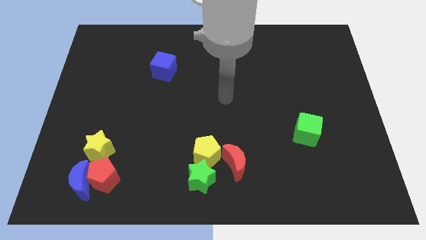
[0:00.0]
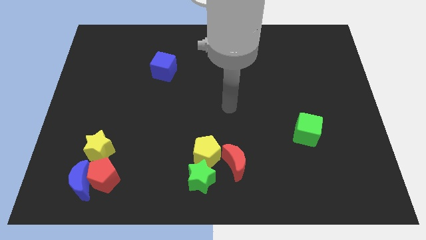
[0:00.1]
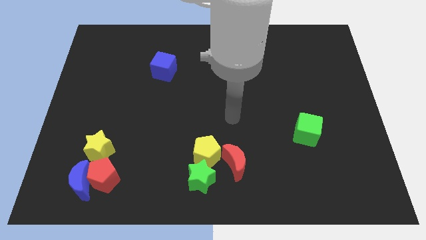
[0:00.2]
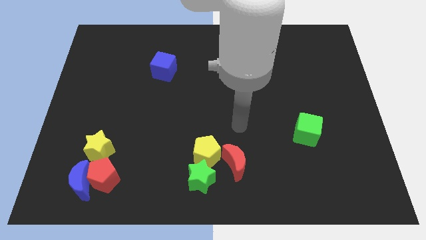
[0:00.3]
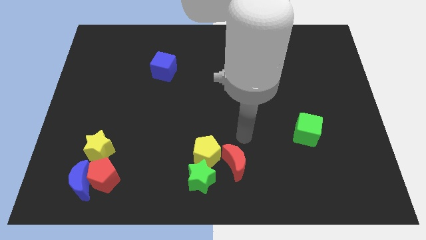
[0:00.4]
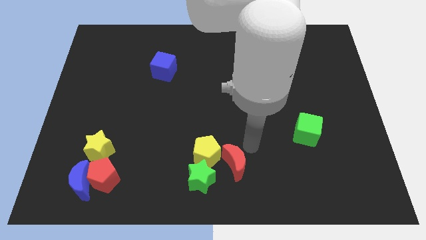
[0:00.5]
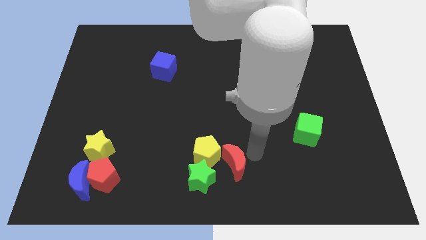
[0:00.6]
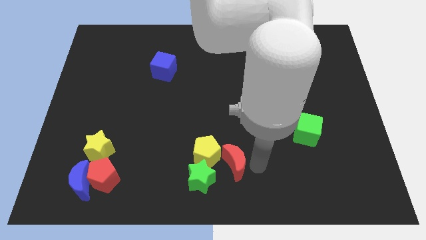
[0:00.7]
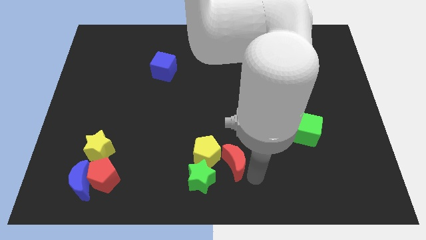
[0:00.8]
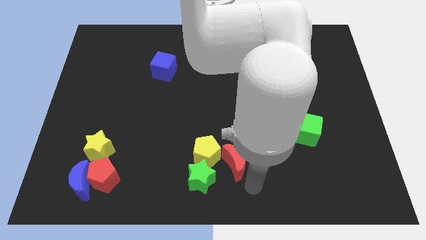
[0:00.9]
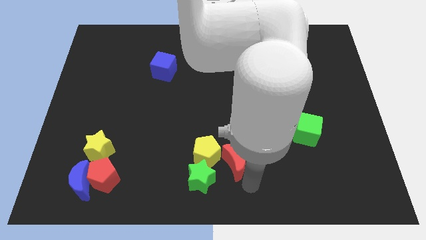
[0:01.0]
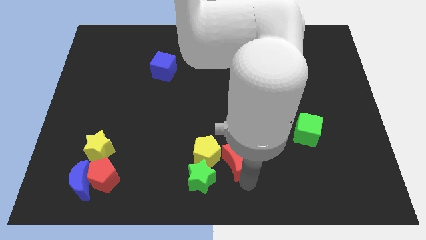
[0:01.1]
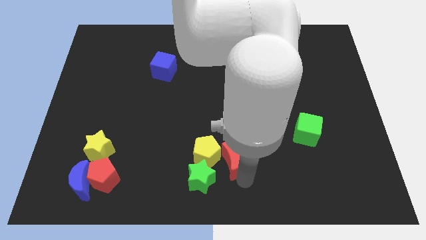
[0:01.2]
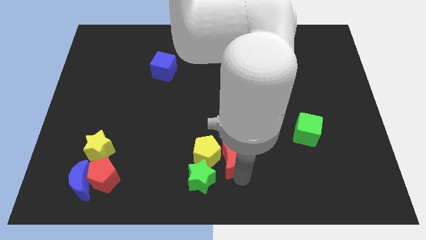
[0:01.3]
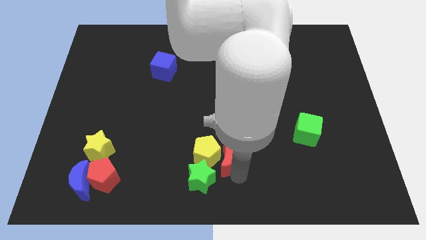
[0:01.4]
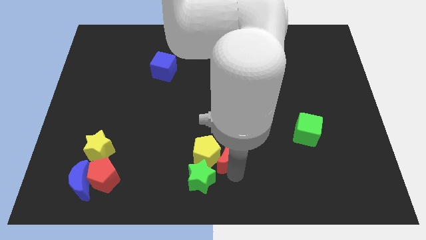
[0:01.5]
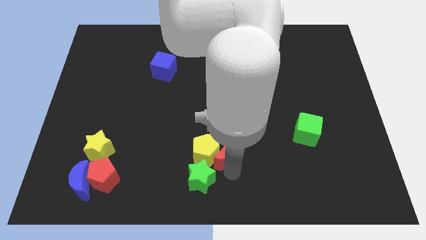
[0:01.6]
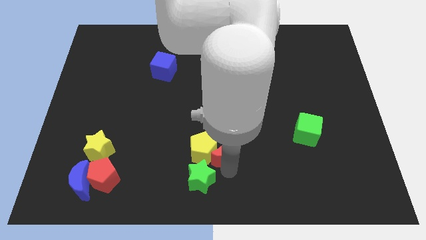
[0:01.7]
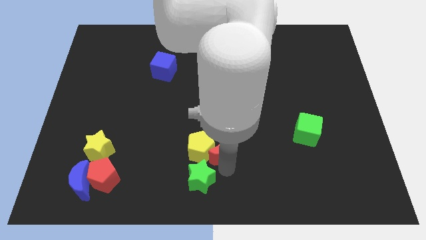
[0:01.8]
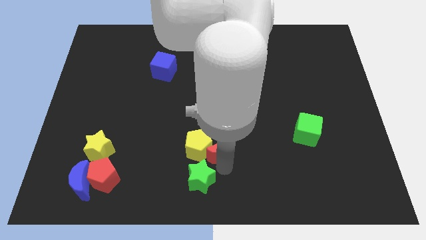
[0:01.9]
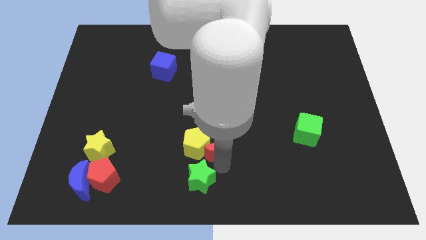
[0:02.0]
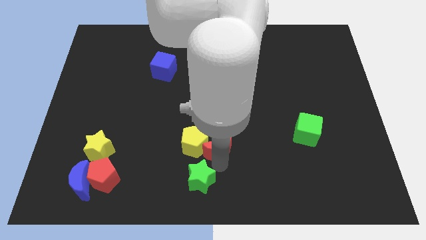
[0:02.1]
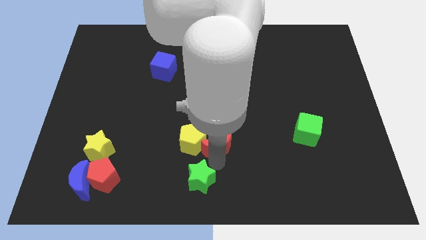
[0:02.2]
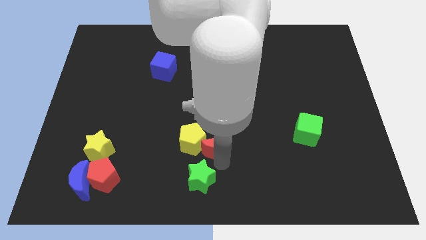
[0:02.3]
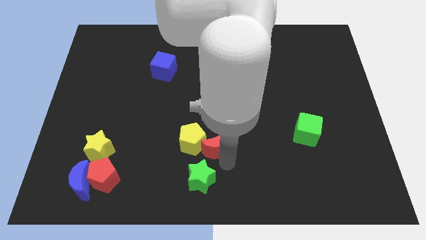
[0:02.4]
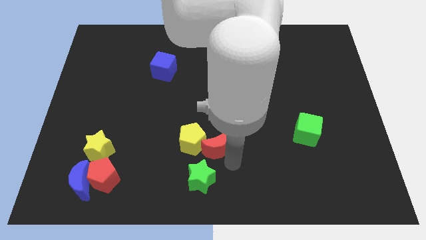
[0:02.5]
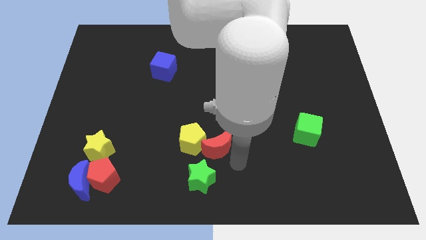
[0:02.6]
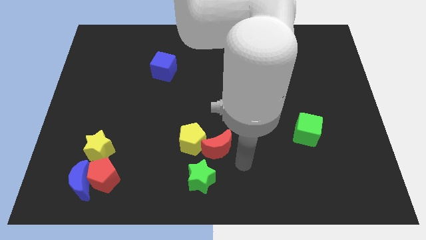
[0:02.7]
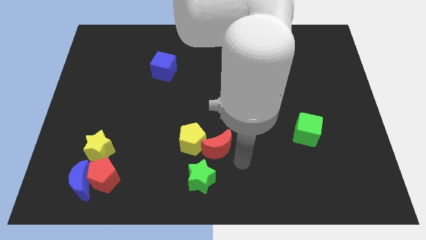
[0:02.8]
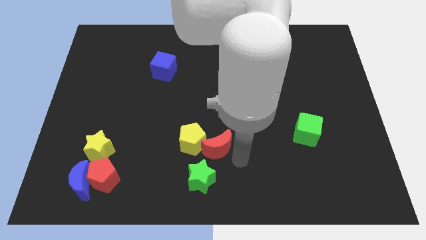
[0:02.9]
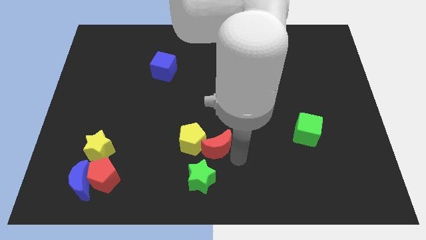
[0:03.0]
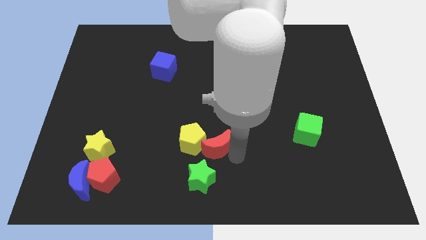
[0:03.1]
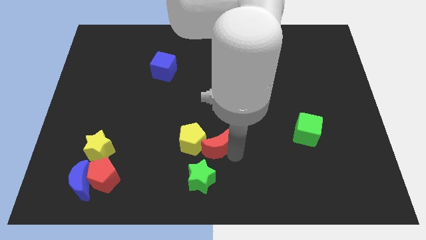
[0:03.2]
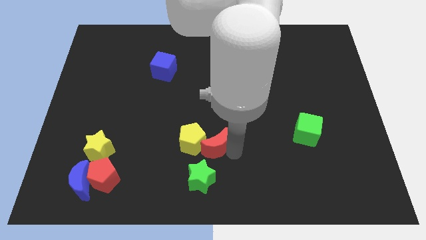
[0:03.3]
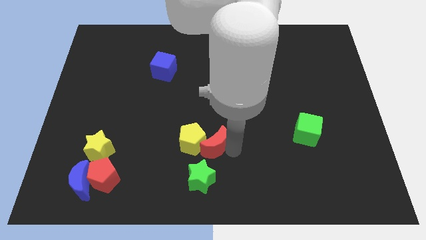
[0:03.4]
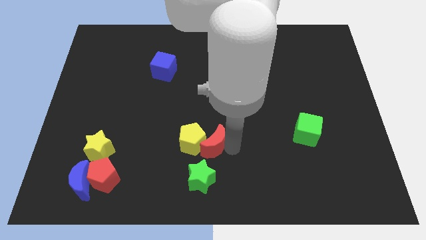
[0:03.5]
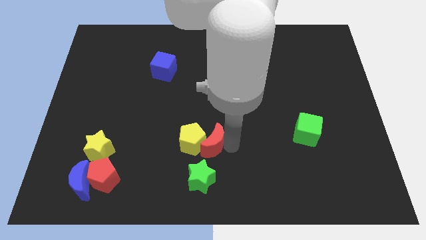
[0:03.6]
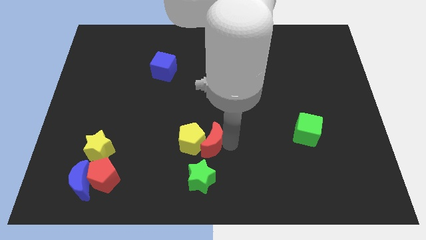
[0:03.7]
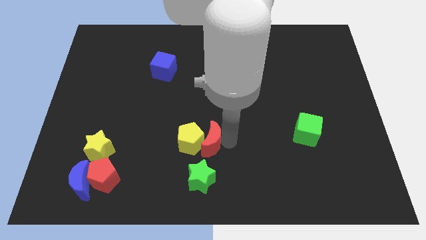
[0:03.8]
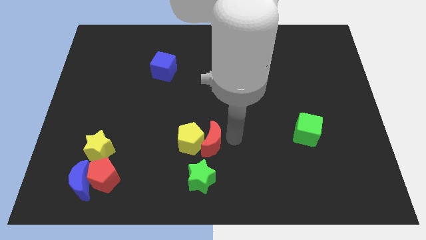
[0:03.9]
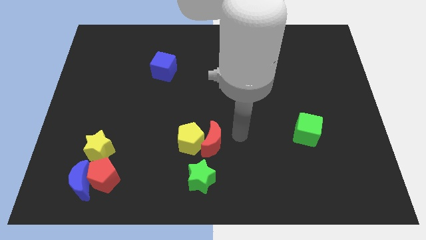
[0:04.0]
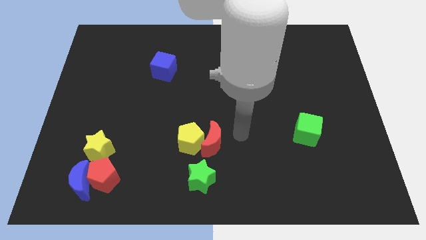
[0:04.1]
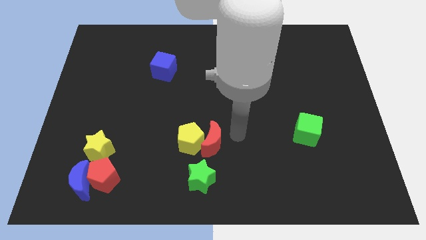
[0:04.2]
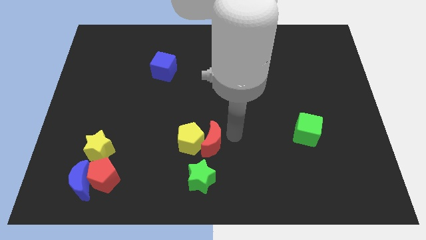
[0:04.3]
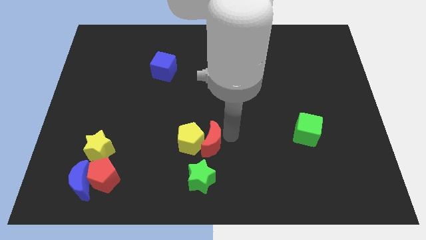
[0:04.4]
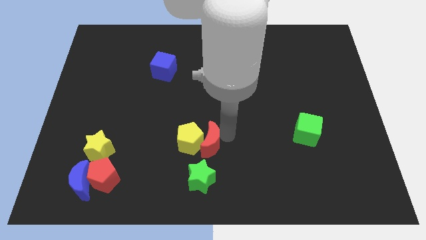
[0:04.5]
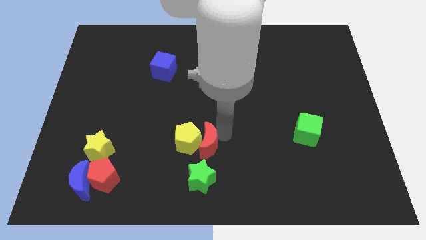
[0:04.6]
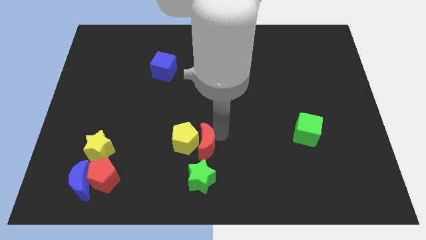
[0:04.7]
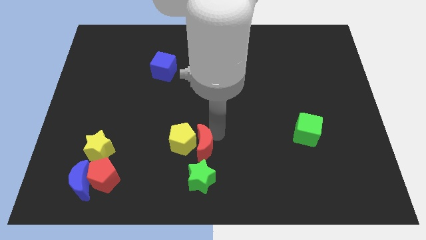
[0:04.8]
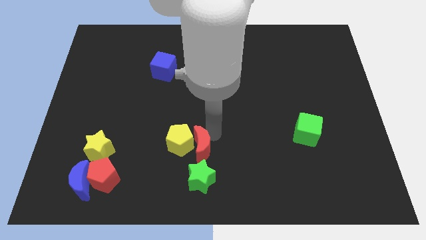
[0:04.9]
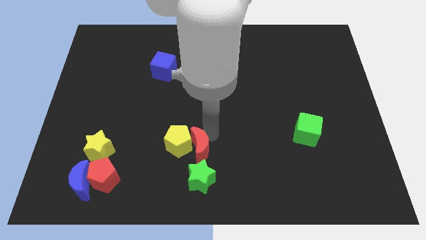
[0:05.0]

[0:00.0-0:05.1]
slightly move the red moon to the left

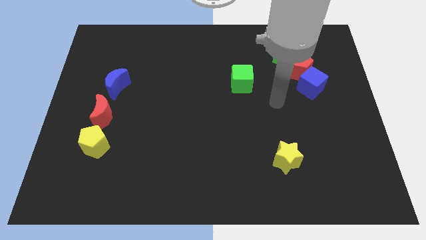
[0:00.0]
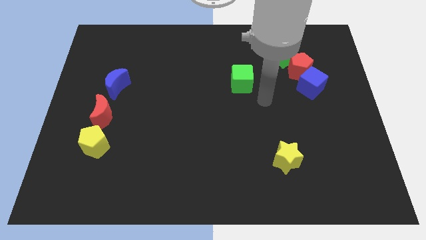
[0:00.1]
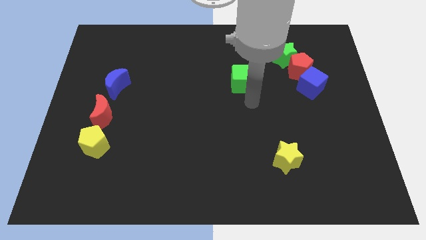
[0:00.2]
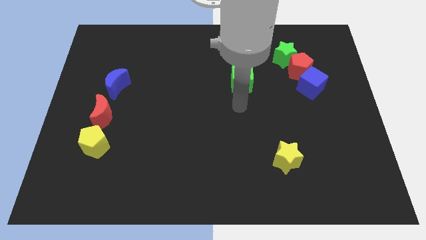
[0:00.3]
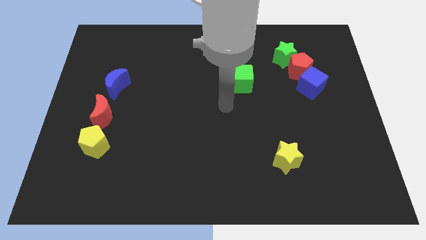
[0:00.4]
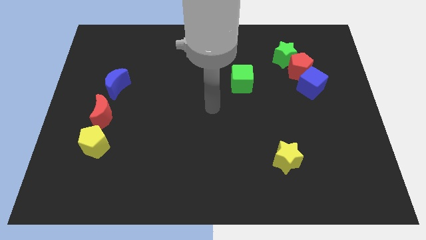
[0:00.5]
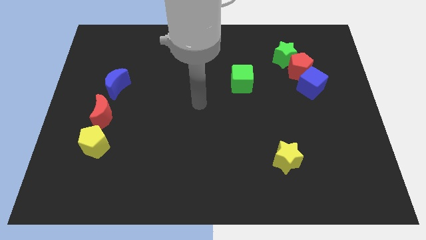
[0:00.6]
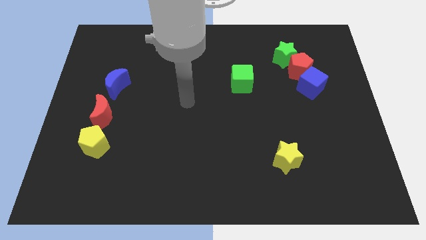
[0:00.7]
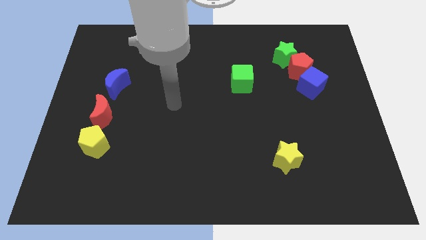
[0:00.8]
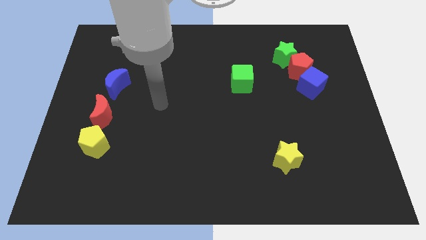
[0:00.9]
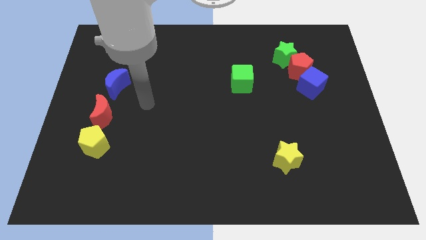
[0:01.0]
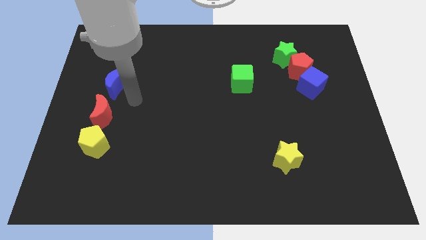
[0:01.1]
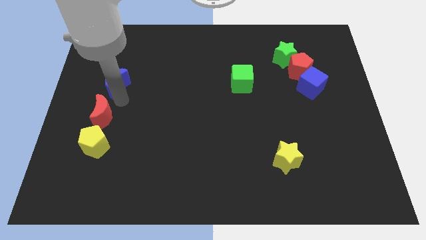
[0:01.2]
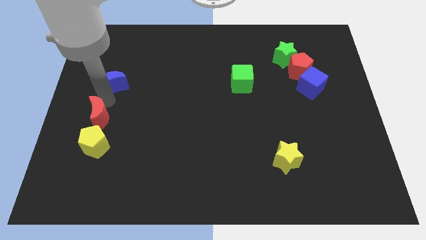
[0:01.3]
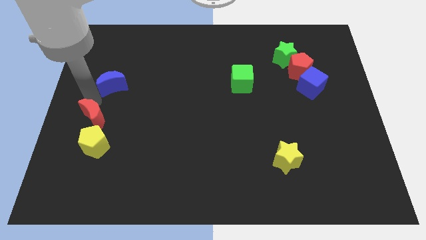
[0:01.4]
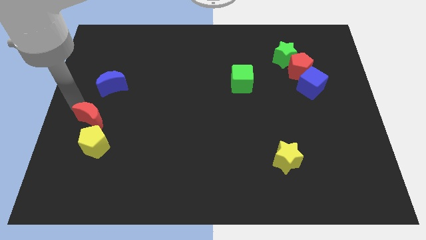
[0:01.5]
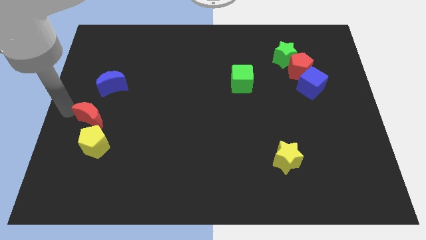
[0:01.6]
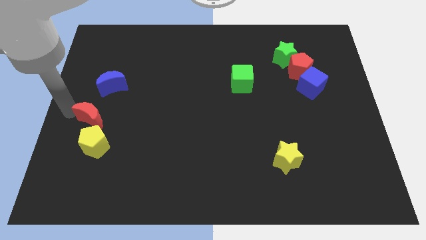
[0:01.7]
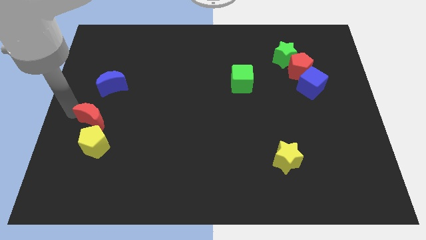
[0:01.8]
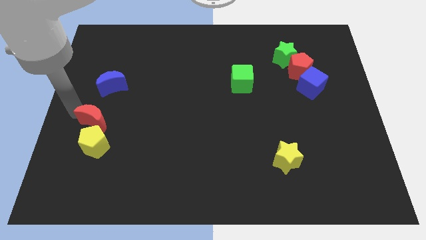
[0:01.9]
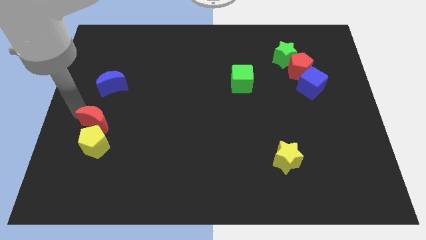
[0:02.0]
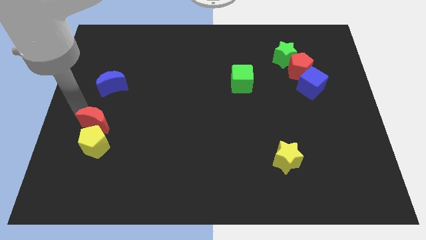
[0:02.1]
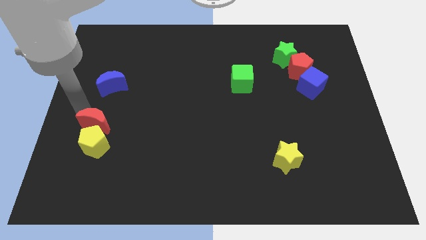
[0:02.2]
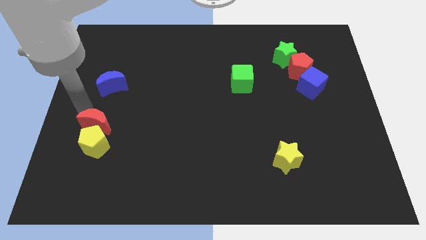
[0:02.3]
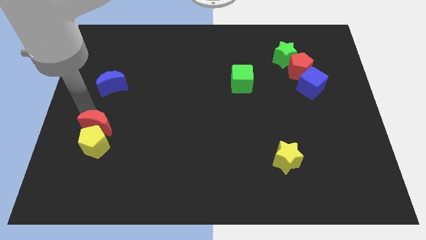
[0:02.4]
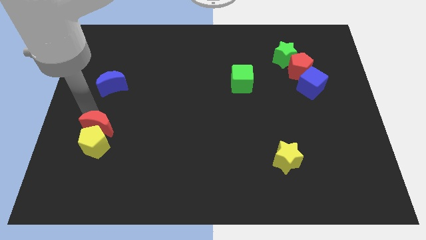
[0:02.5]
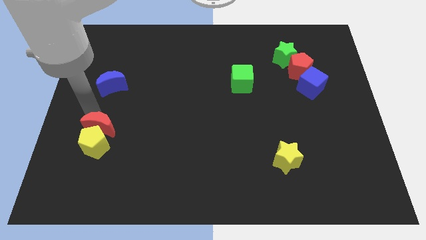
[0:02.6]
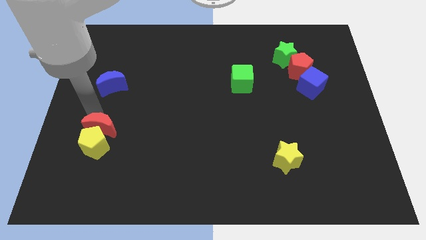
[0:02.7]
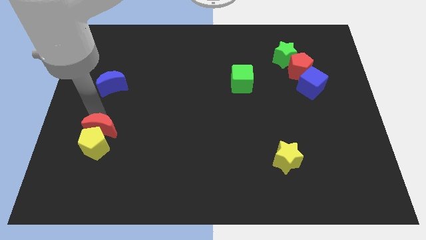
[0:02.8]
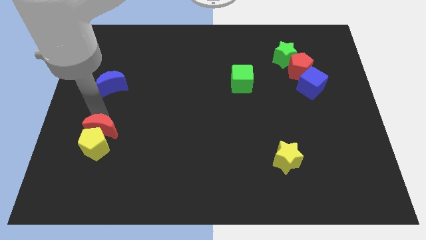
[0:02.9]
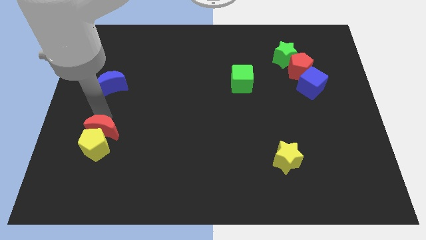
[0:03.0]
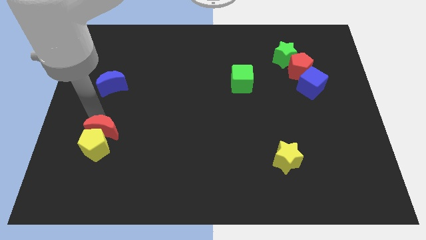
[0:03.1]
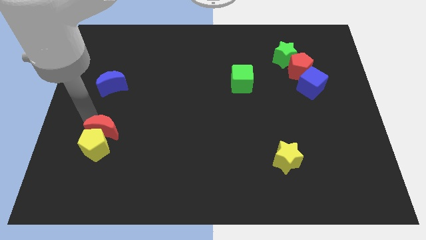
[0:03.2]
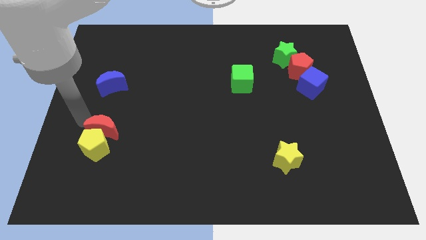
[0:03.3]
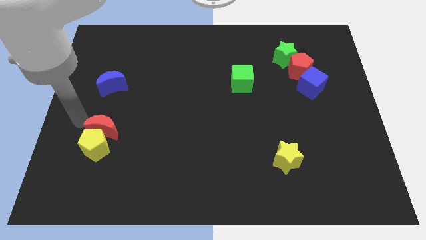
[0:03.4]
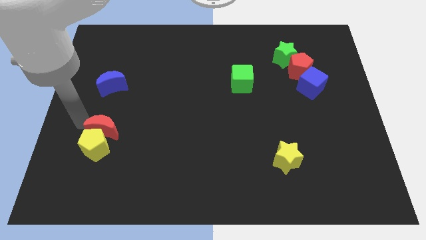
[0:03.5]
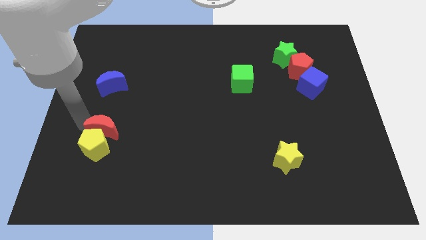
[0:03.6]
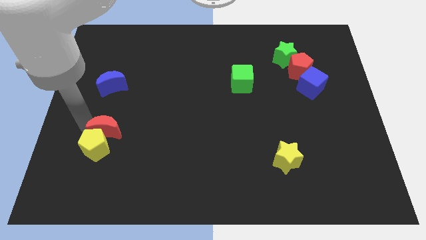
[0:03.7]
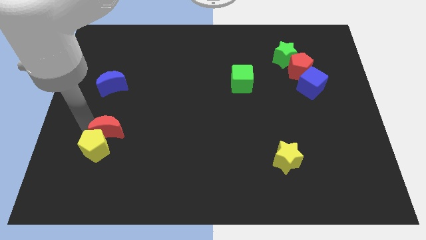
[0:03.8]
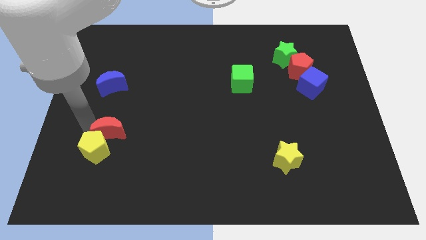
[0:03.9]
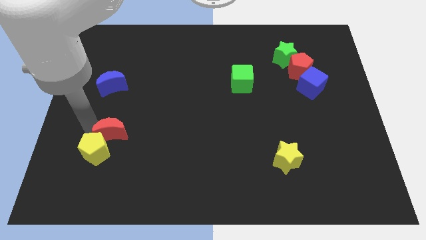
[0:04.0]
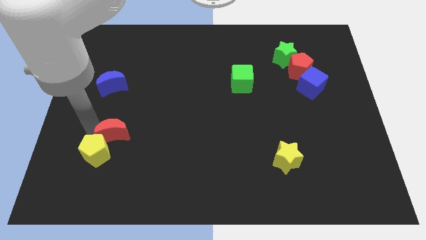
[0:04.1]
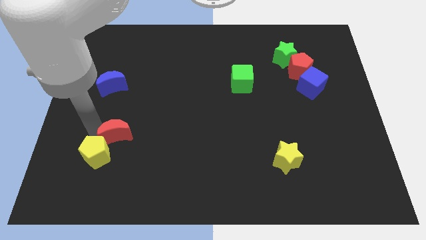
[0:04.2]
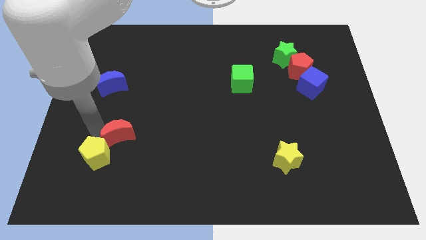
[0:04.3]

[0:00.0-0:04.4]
move the red moon diagonally downwards and to the right slightly
